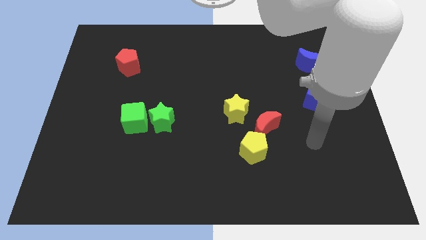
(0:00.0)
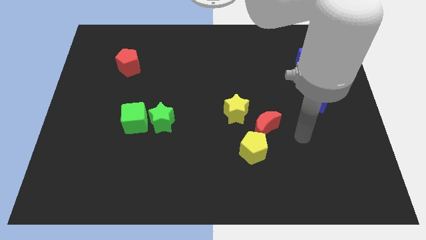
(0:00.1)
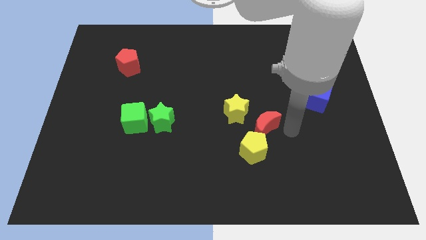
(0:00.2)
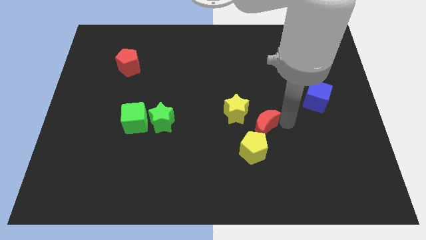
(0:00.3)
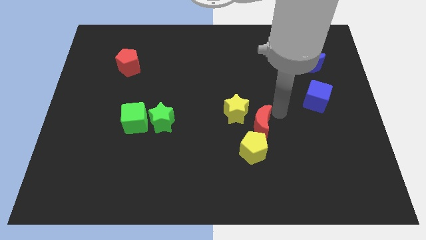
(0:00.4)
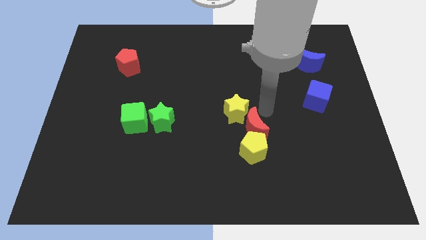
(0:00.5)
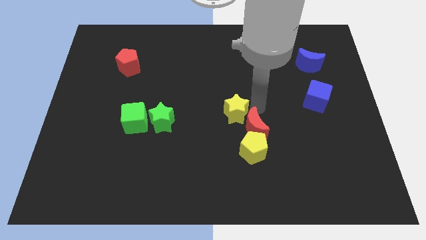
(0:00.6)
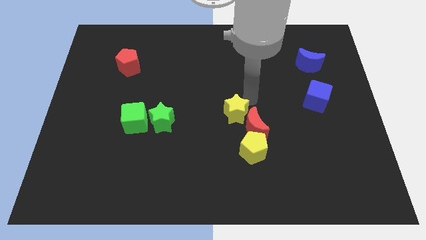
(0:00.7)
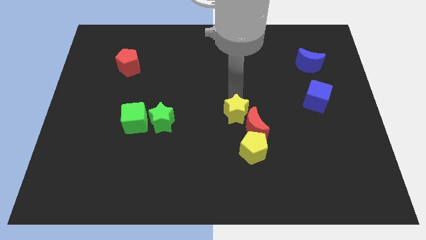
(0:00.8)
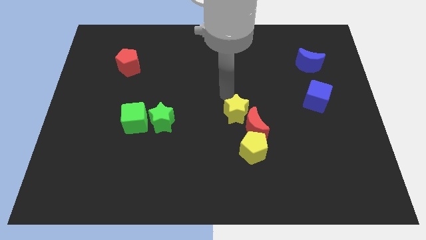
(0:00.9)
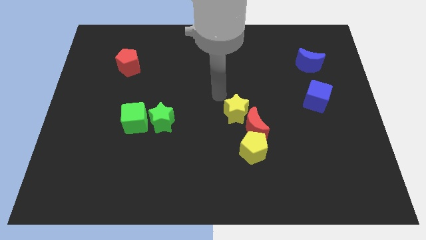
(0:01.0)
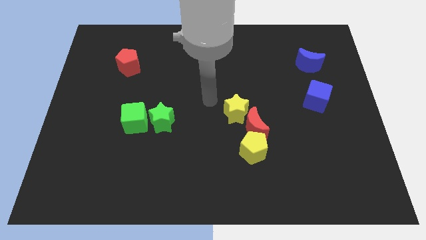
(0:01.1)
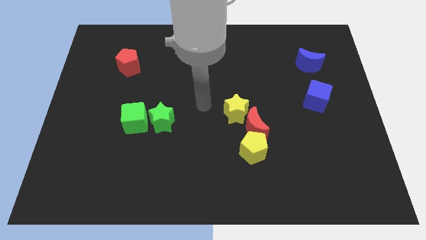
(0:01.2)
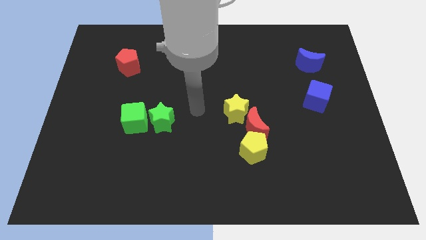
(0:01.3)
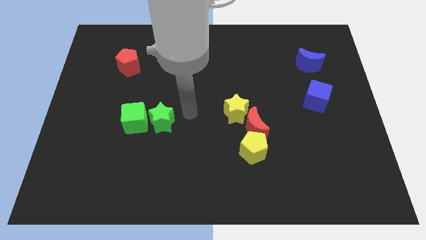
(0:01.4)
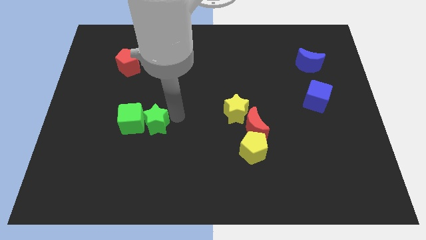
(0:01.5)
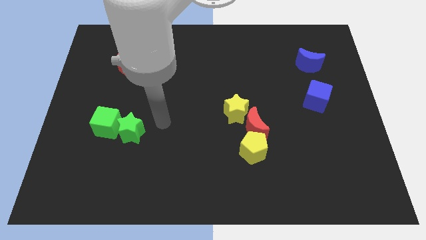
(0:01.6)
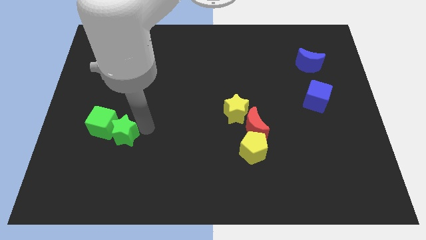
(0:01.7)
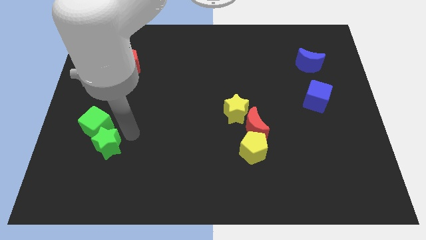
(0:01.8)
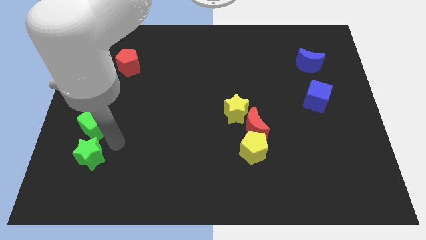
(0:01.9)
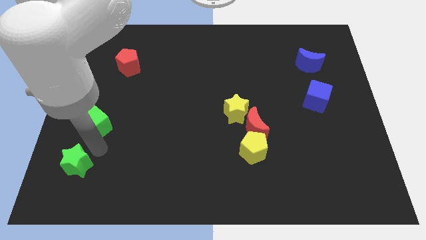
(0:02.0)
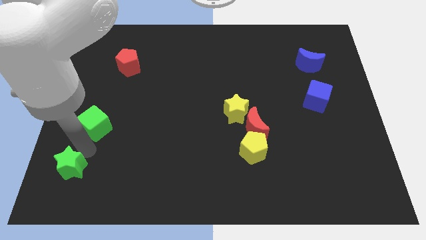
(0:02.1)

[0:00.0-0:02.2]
move the green cube away from the green star

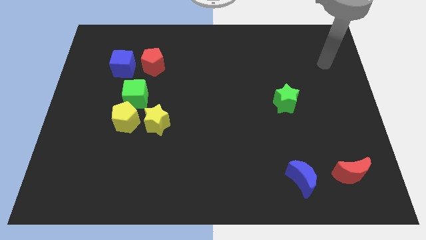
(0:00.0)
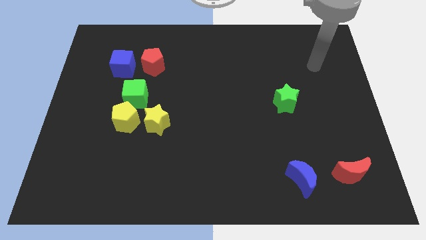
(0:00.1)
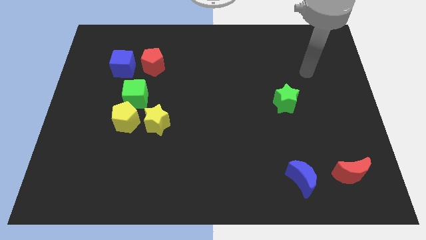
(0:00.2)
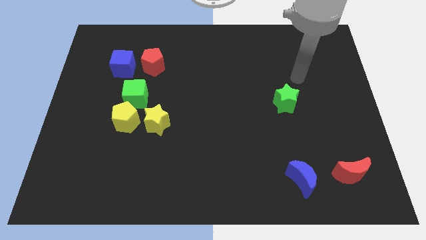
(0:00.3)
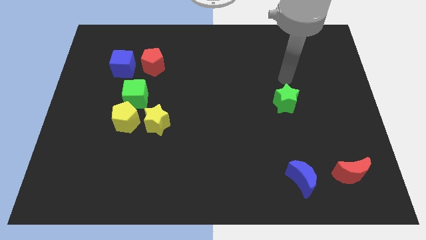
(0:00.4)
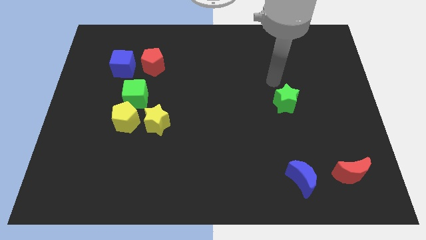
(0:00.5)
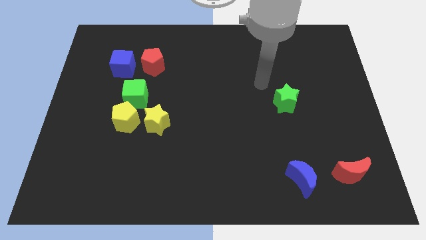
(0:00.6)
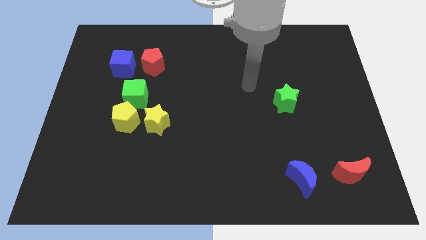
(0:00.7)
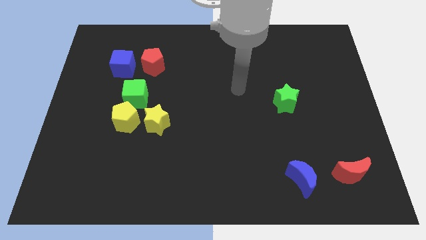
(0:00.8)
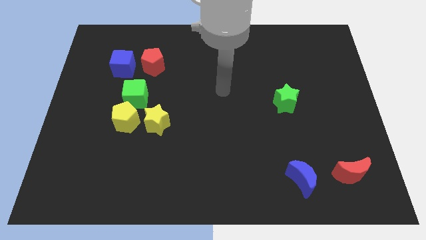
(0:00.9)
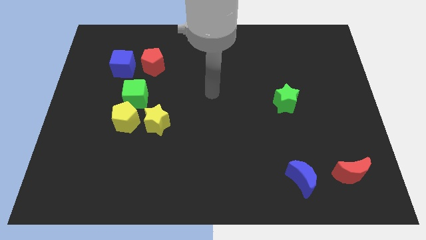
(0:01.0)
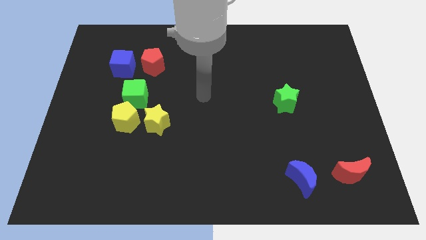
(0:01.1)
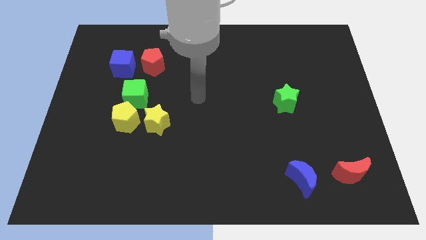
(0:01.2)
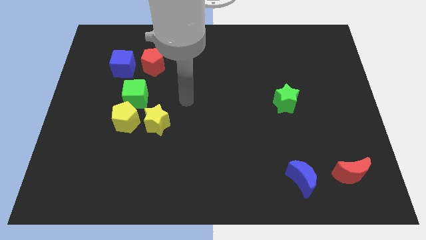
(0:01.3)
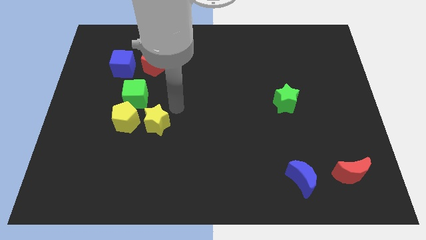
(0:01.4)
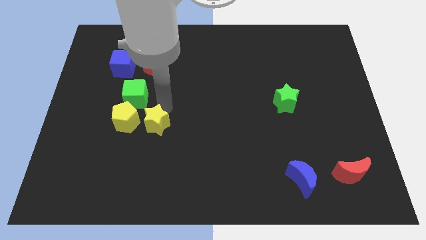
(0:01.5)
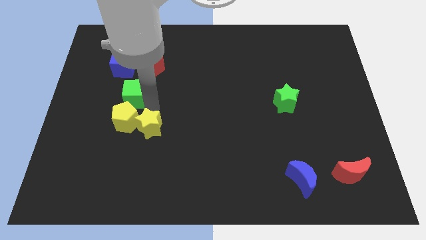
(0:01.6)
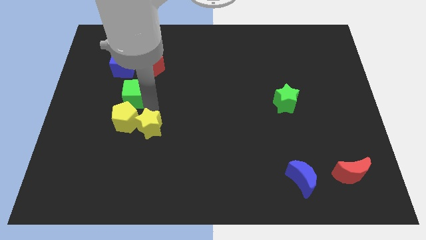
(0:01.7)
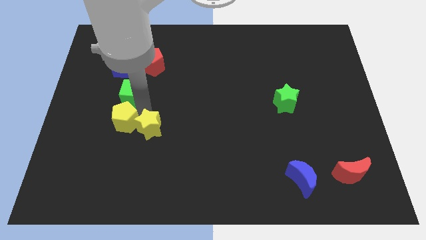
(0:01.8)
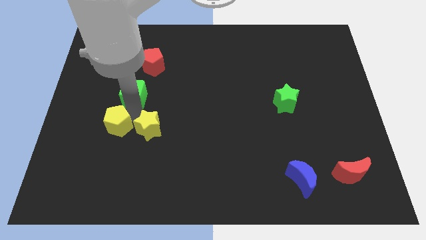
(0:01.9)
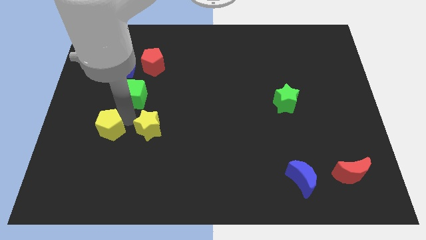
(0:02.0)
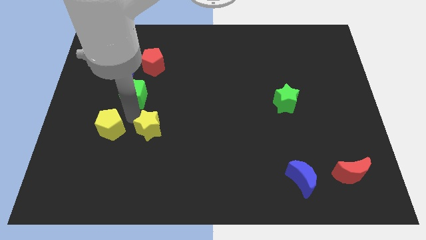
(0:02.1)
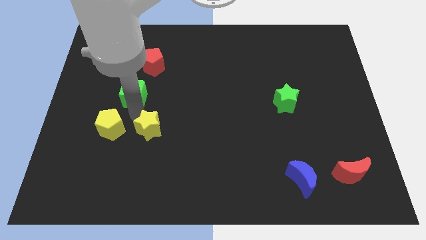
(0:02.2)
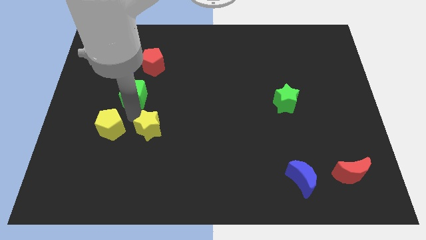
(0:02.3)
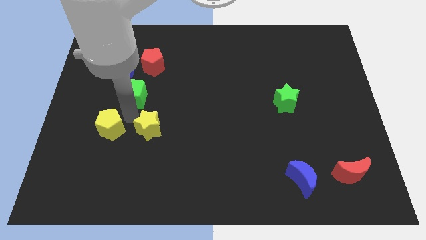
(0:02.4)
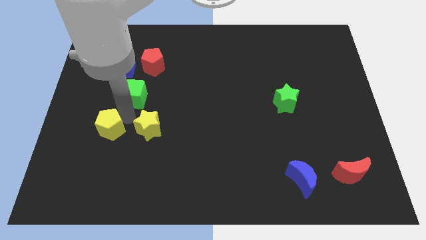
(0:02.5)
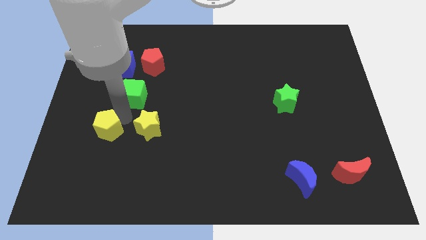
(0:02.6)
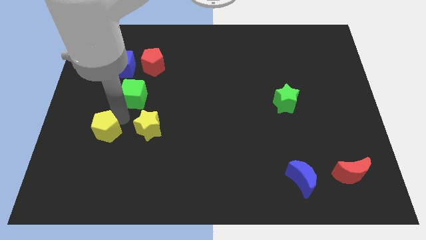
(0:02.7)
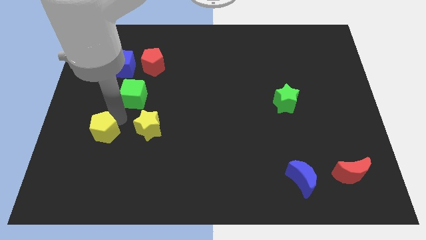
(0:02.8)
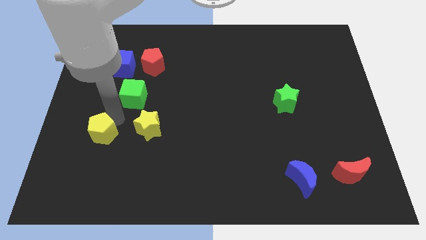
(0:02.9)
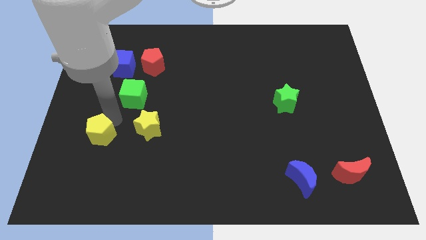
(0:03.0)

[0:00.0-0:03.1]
move the yellow pentagon away from the green cube and yellow star

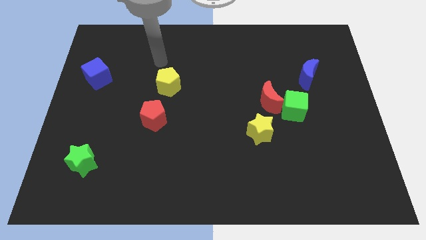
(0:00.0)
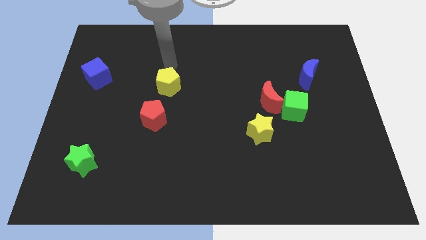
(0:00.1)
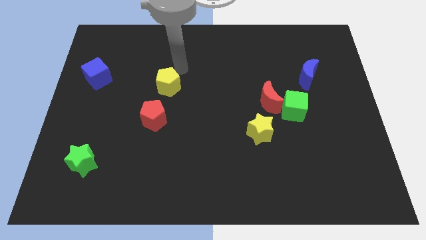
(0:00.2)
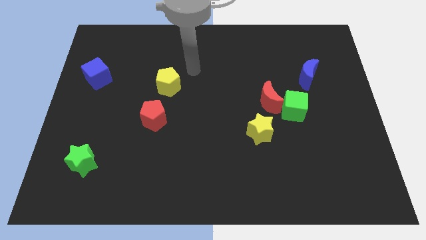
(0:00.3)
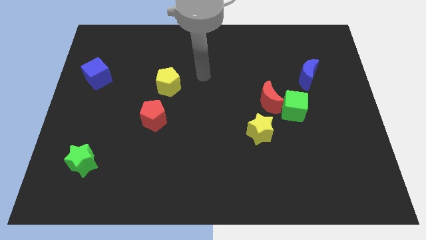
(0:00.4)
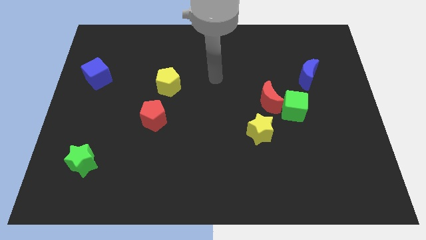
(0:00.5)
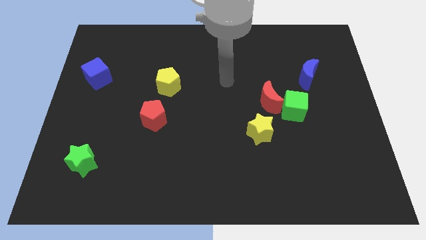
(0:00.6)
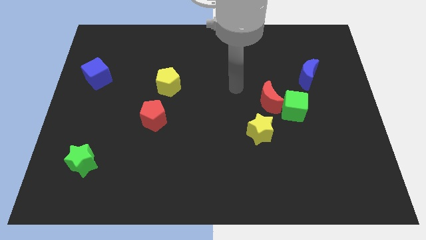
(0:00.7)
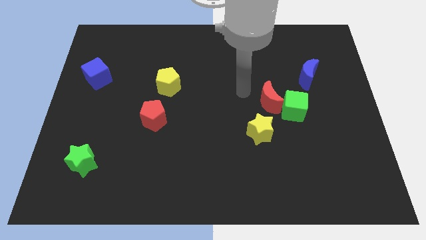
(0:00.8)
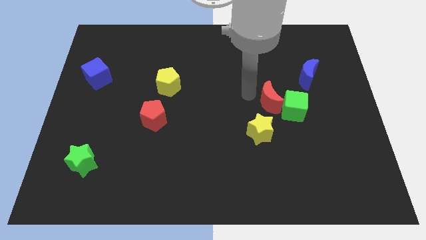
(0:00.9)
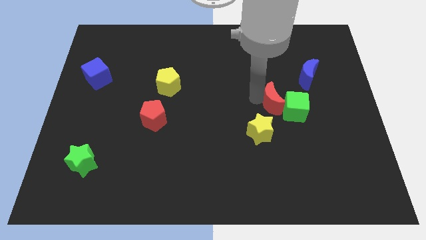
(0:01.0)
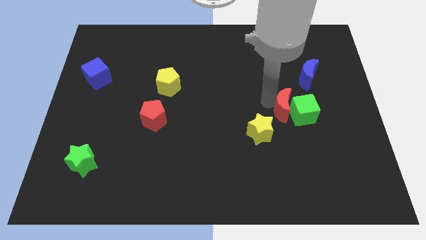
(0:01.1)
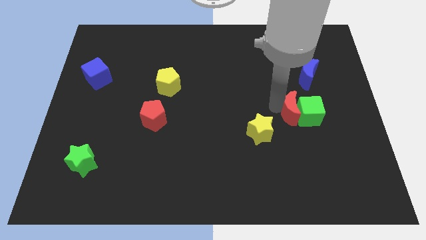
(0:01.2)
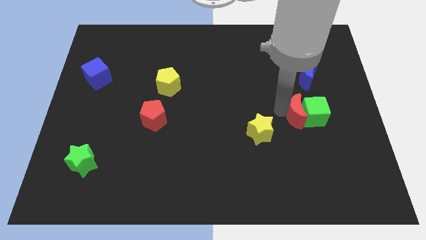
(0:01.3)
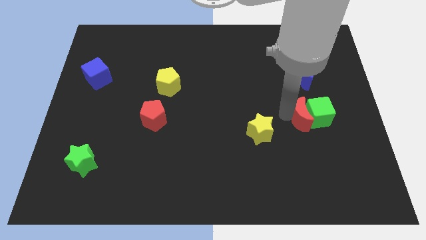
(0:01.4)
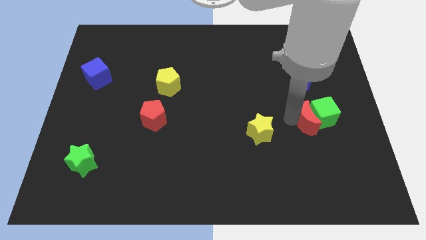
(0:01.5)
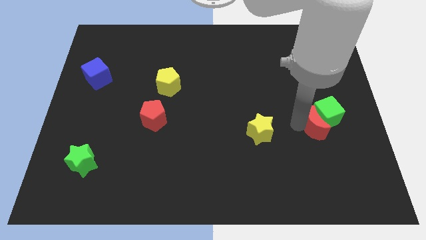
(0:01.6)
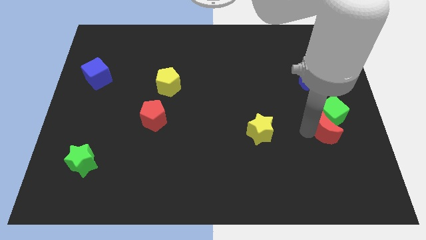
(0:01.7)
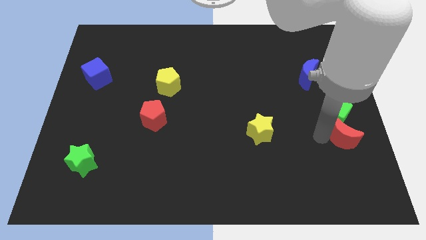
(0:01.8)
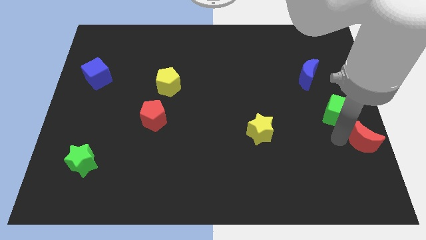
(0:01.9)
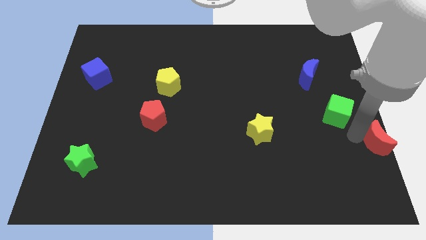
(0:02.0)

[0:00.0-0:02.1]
pull the green cube apart from the red moon

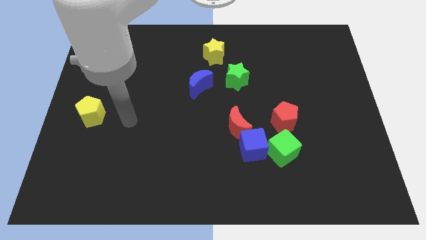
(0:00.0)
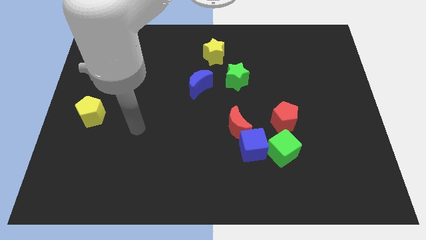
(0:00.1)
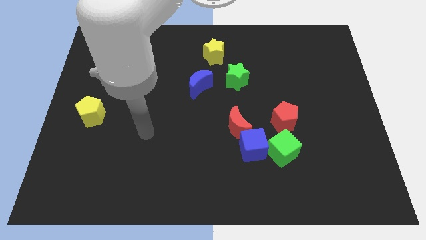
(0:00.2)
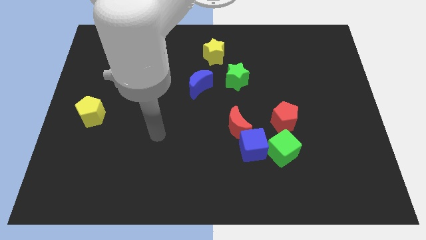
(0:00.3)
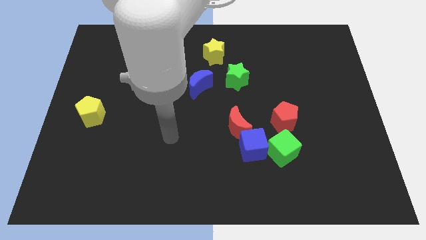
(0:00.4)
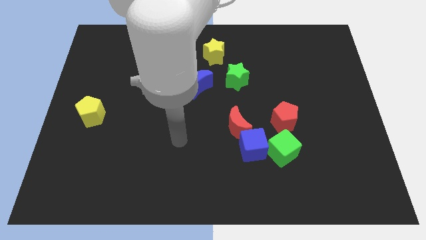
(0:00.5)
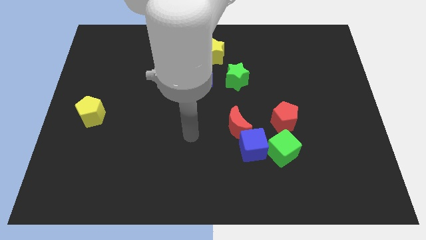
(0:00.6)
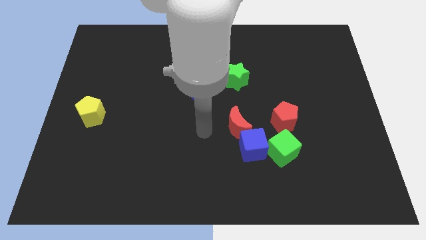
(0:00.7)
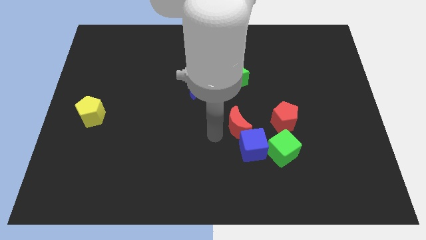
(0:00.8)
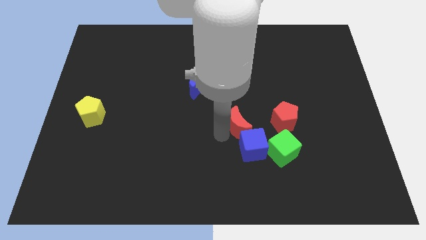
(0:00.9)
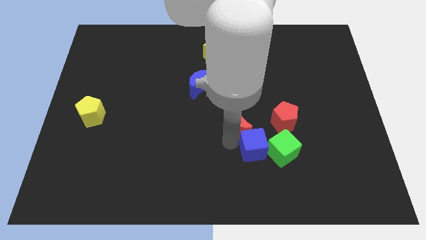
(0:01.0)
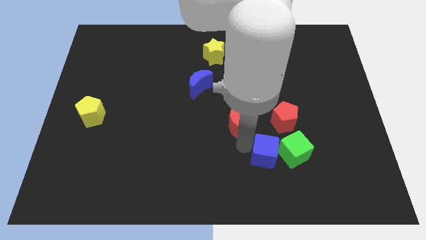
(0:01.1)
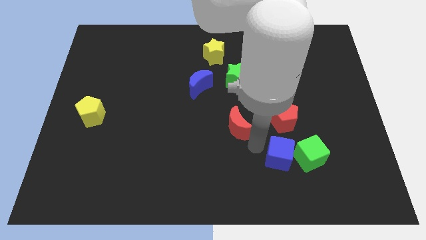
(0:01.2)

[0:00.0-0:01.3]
pull the red moon apart from the blue cube

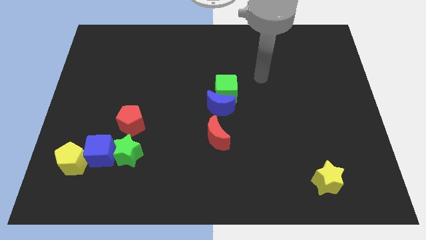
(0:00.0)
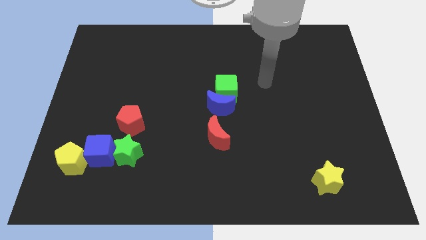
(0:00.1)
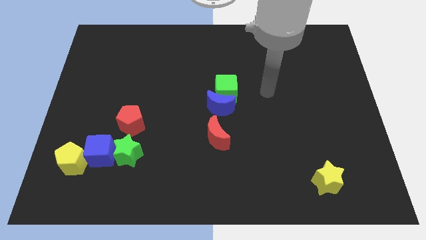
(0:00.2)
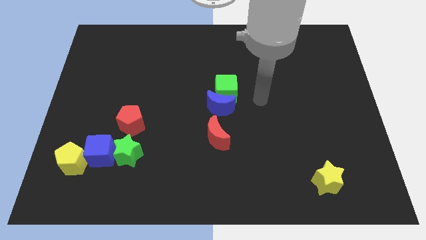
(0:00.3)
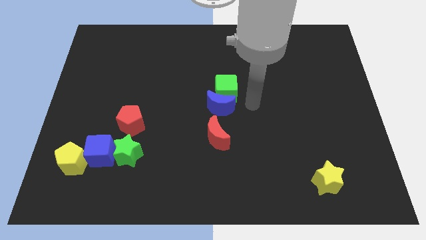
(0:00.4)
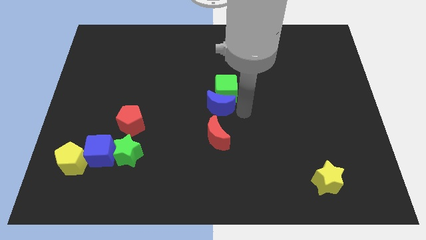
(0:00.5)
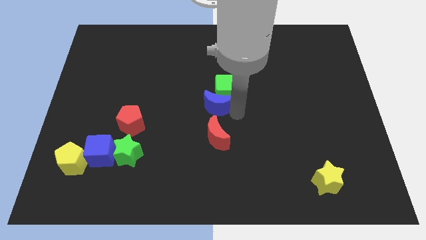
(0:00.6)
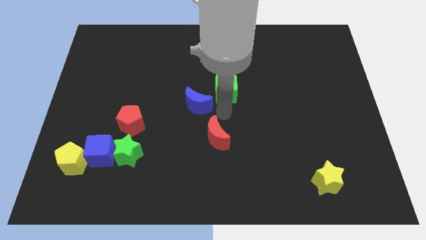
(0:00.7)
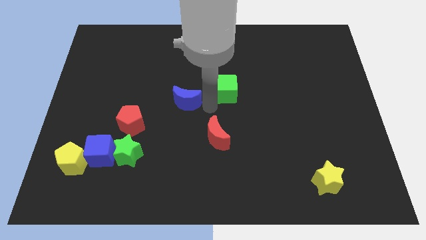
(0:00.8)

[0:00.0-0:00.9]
move the green cube away from the blue moon
